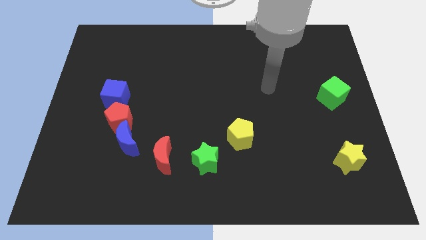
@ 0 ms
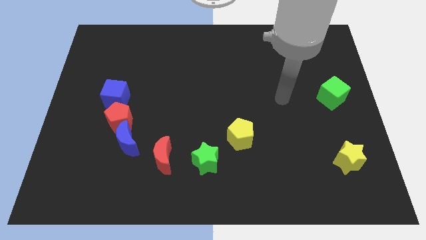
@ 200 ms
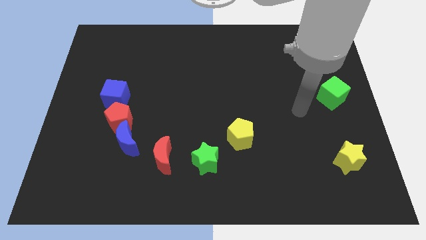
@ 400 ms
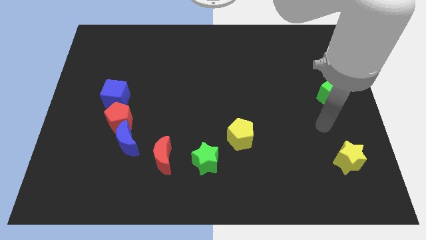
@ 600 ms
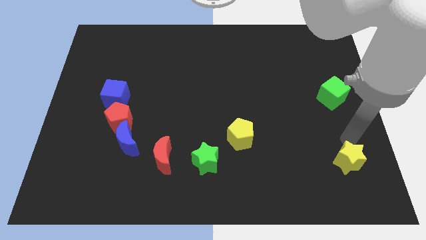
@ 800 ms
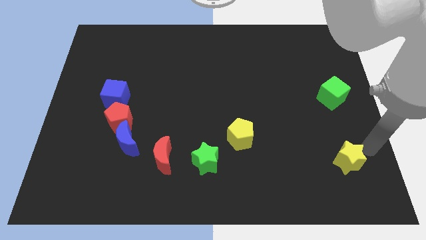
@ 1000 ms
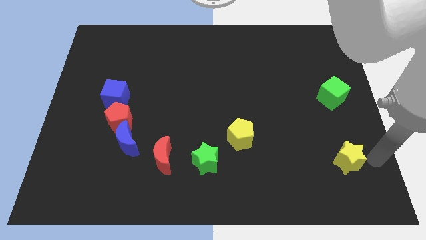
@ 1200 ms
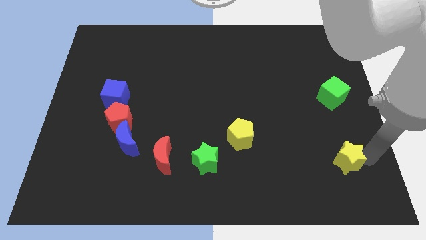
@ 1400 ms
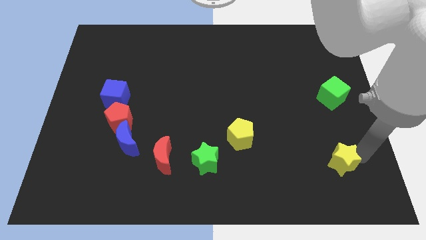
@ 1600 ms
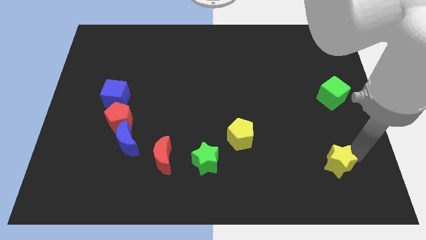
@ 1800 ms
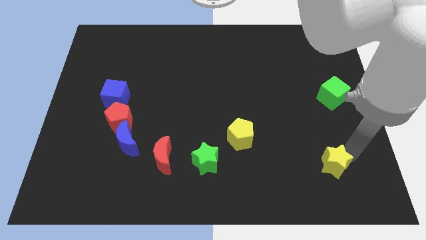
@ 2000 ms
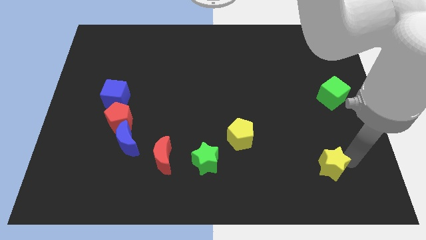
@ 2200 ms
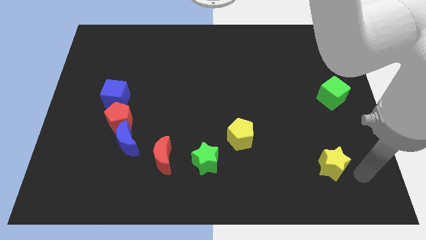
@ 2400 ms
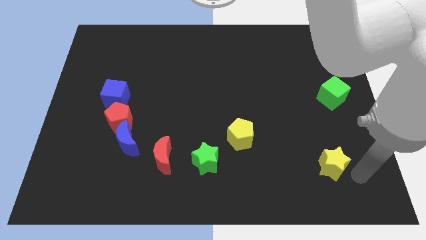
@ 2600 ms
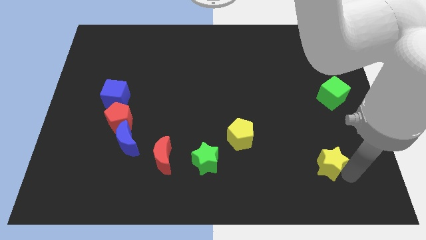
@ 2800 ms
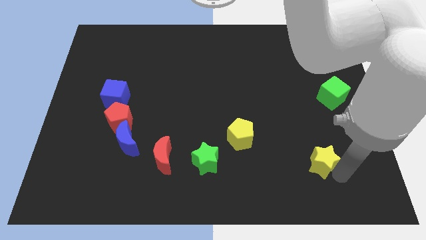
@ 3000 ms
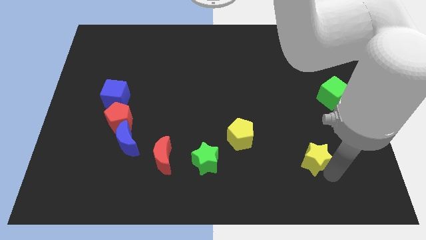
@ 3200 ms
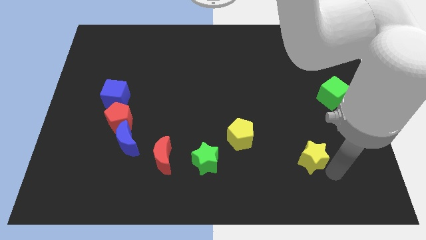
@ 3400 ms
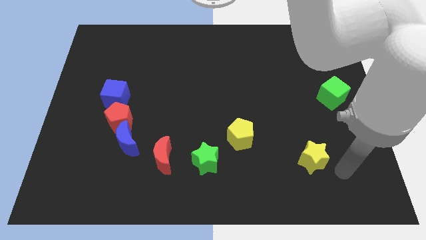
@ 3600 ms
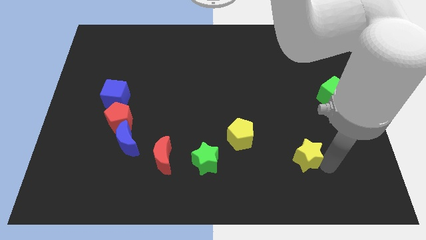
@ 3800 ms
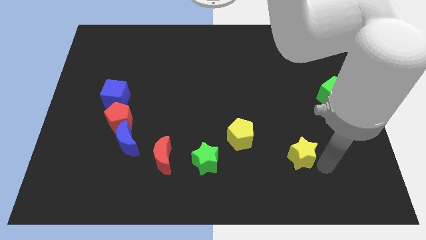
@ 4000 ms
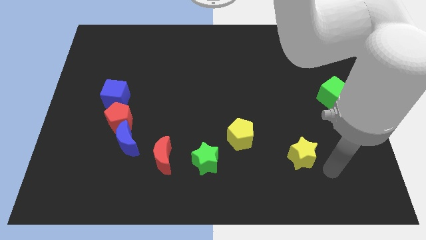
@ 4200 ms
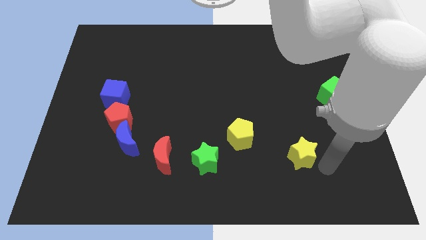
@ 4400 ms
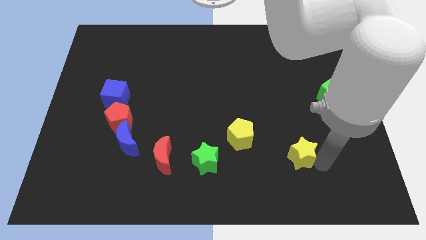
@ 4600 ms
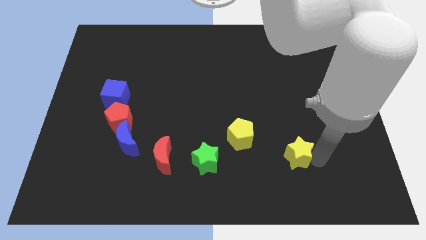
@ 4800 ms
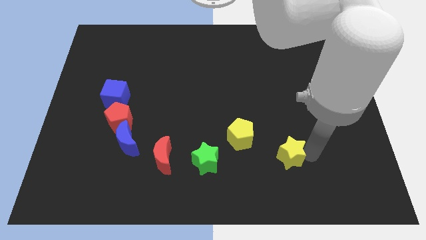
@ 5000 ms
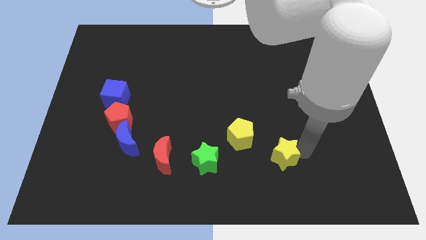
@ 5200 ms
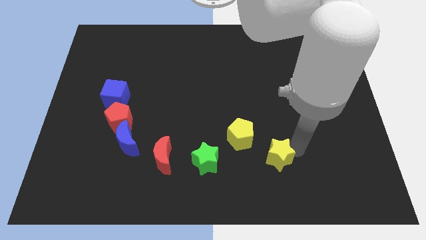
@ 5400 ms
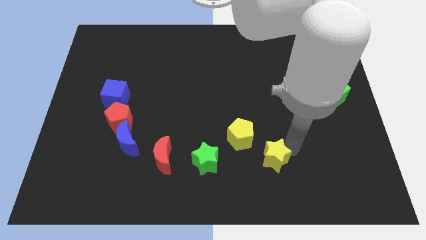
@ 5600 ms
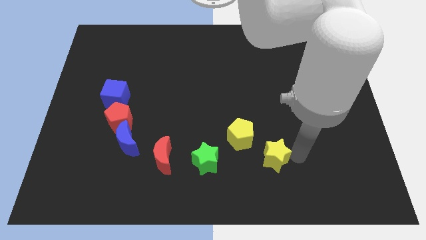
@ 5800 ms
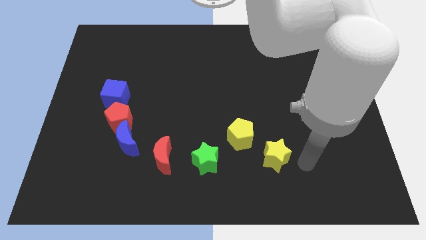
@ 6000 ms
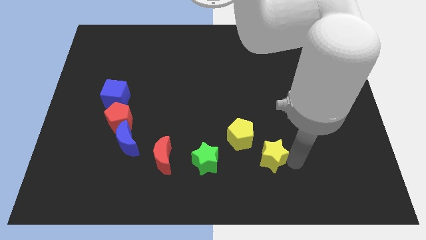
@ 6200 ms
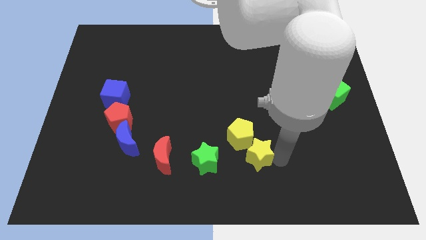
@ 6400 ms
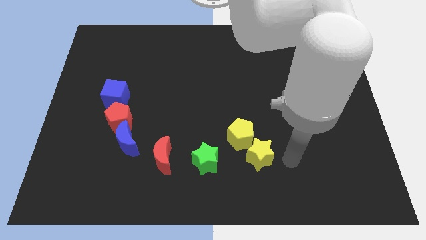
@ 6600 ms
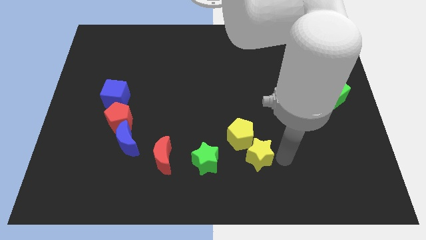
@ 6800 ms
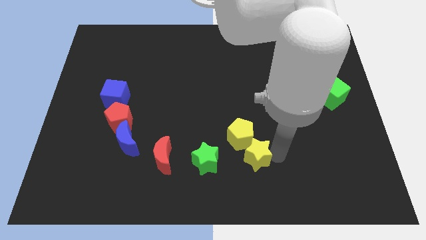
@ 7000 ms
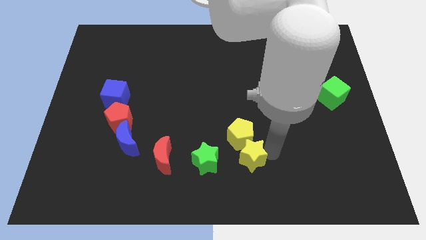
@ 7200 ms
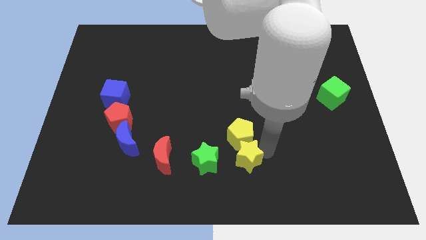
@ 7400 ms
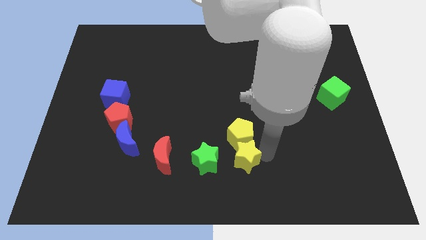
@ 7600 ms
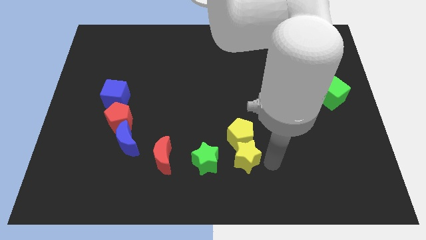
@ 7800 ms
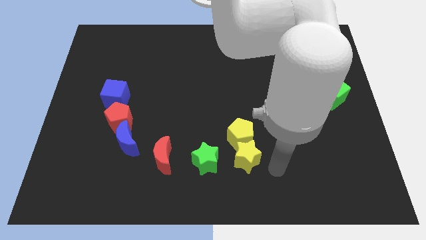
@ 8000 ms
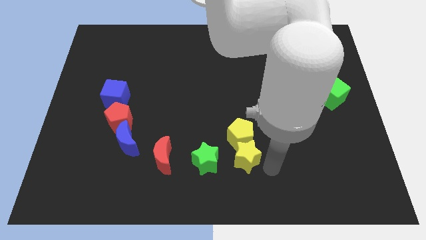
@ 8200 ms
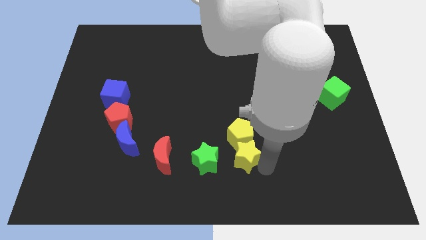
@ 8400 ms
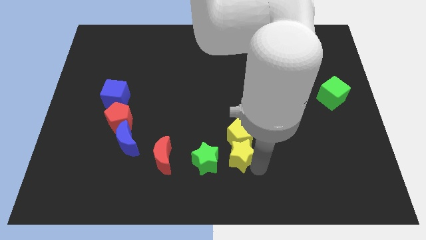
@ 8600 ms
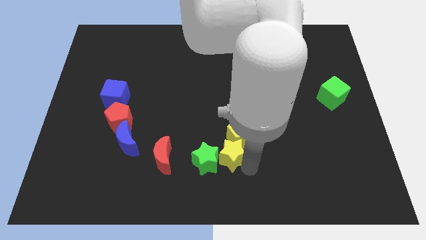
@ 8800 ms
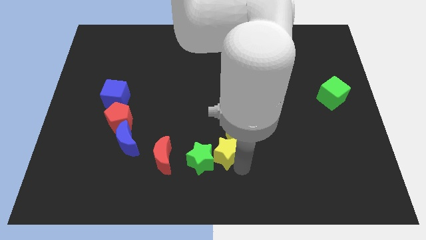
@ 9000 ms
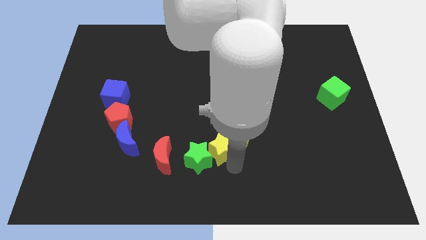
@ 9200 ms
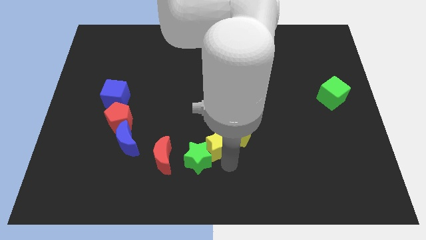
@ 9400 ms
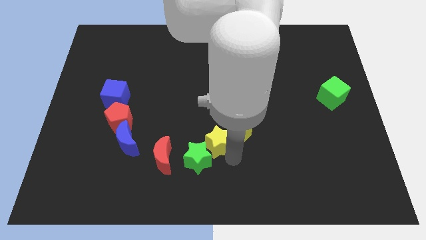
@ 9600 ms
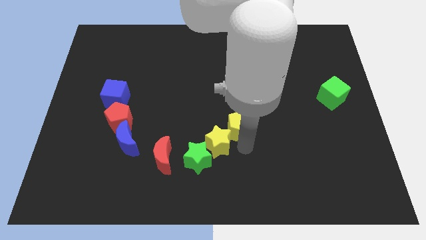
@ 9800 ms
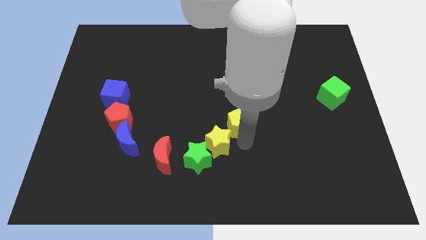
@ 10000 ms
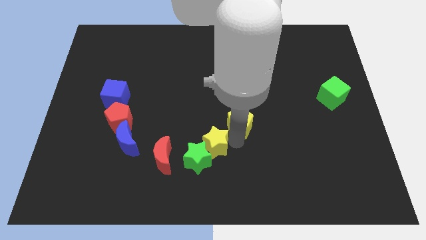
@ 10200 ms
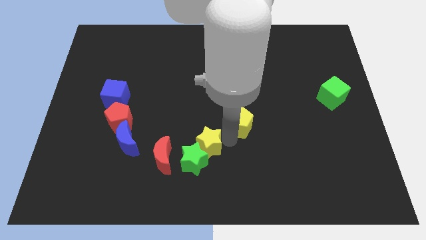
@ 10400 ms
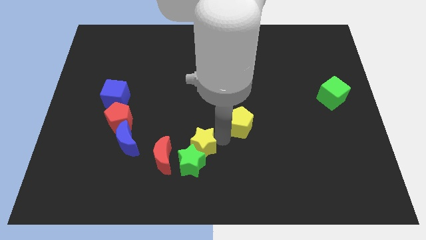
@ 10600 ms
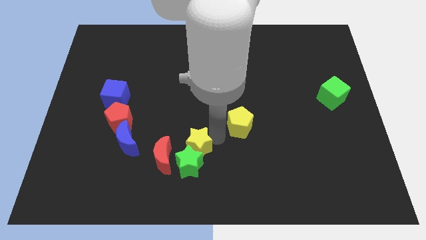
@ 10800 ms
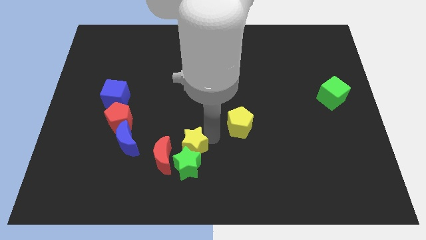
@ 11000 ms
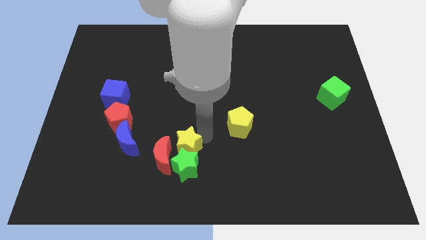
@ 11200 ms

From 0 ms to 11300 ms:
slide the yellow star towards the red moon

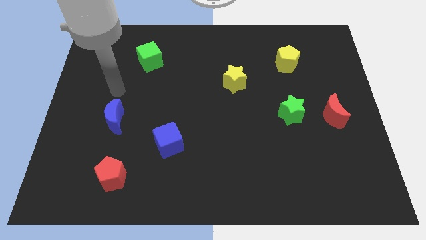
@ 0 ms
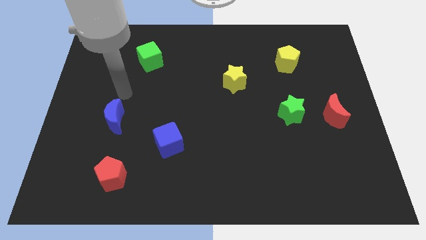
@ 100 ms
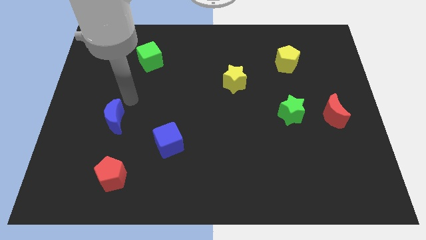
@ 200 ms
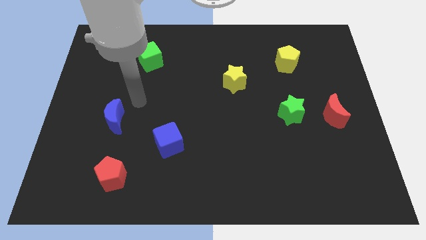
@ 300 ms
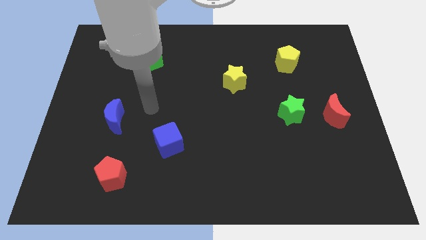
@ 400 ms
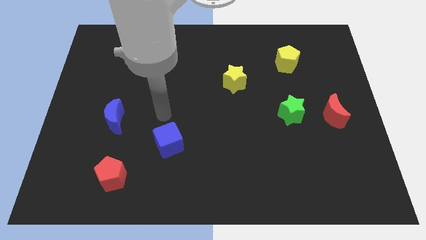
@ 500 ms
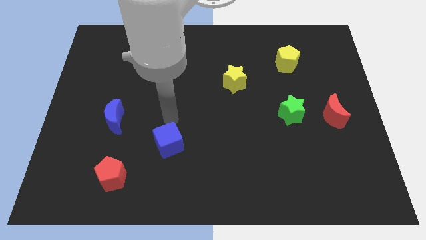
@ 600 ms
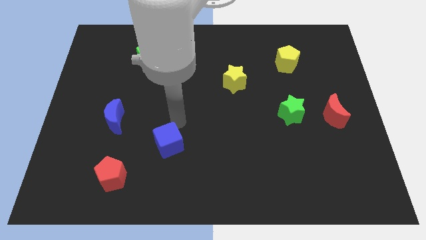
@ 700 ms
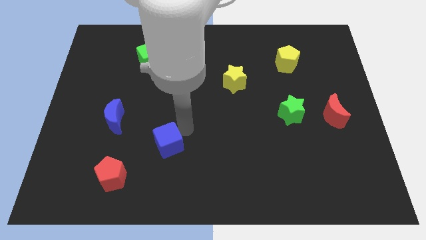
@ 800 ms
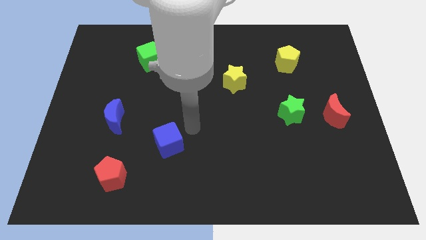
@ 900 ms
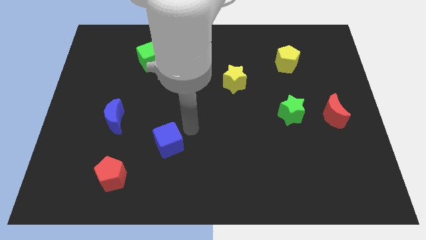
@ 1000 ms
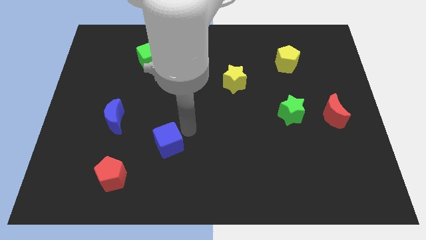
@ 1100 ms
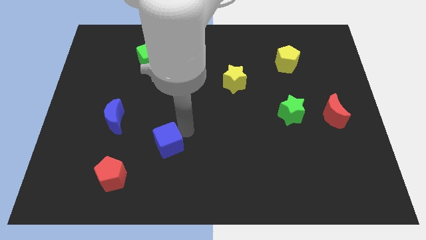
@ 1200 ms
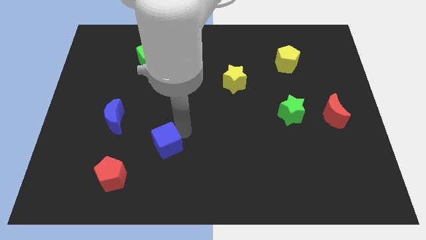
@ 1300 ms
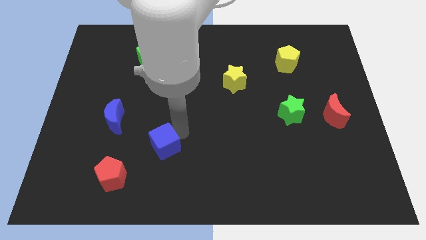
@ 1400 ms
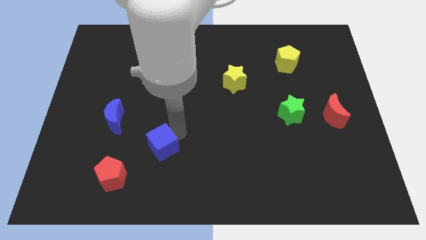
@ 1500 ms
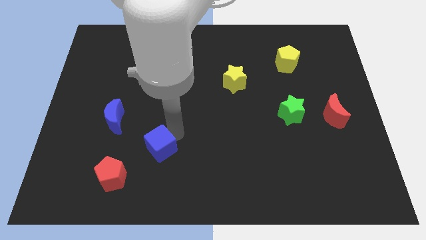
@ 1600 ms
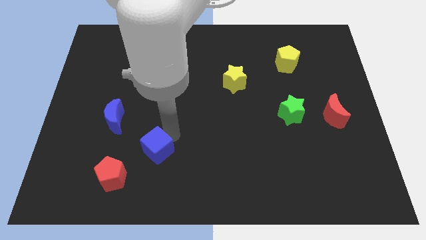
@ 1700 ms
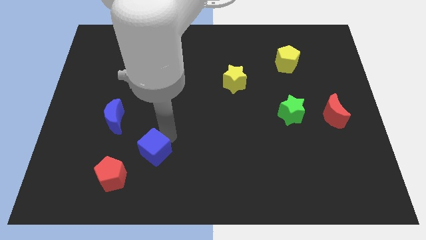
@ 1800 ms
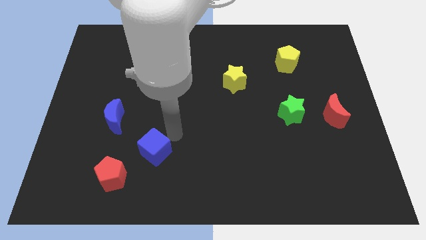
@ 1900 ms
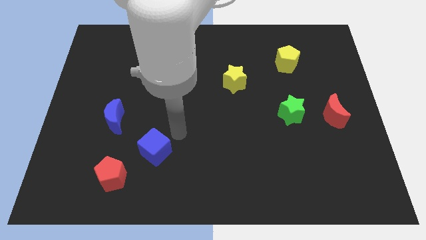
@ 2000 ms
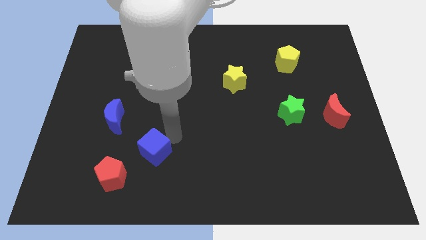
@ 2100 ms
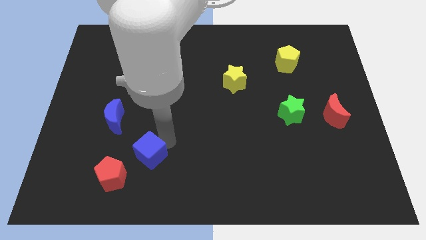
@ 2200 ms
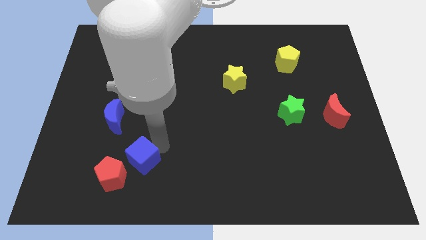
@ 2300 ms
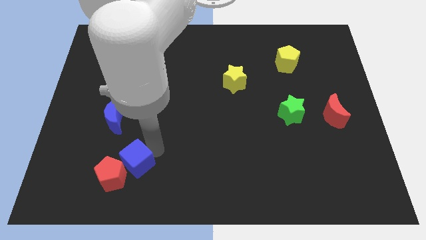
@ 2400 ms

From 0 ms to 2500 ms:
slide the blue cube close to the red pentagon
